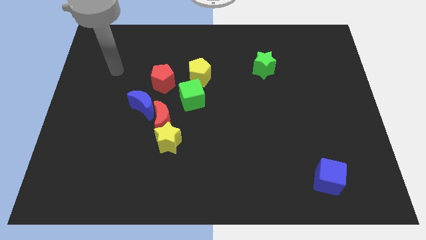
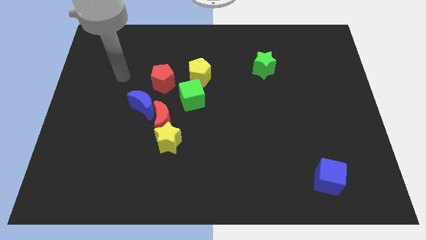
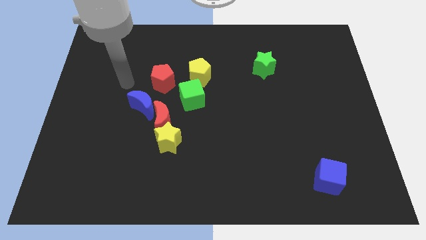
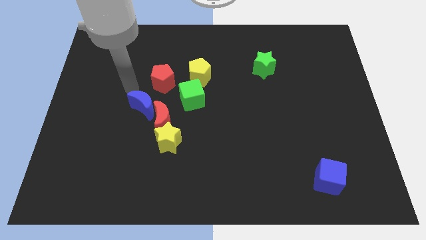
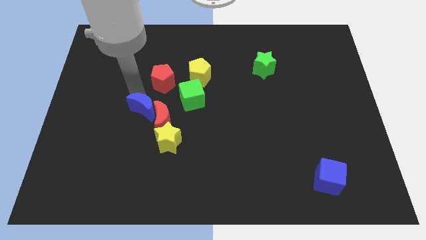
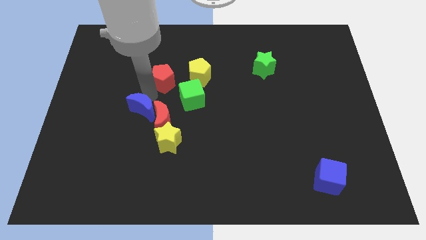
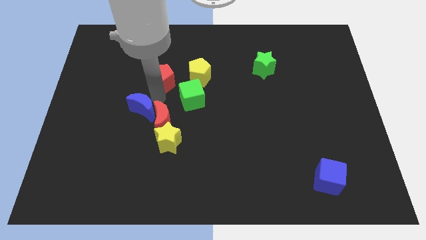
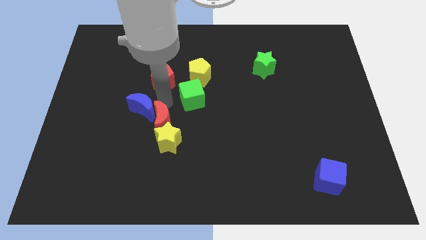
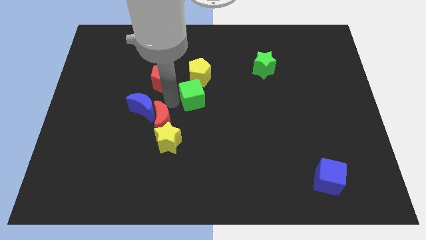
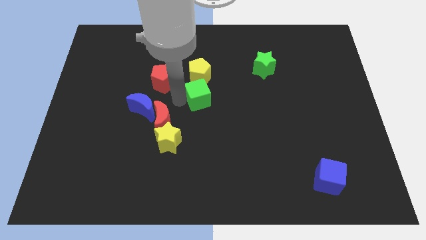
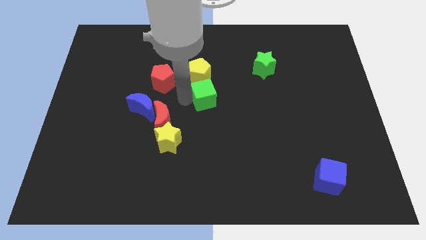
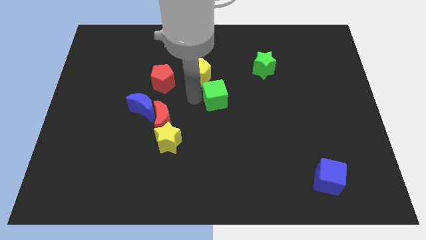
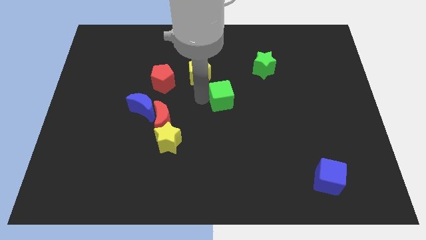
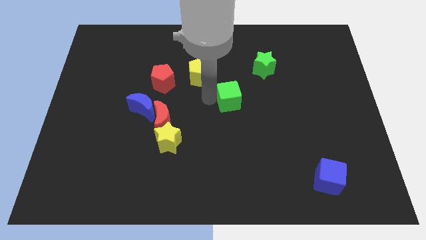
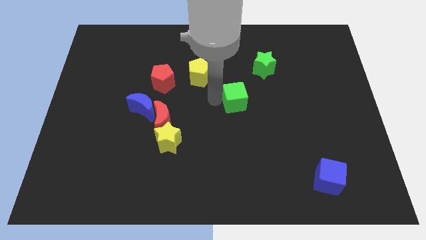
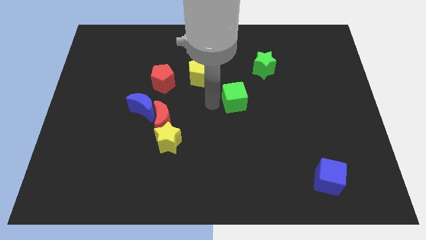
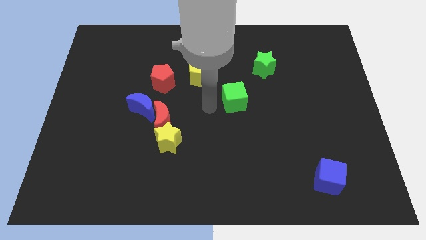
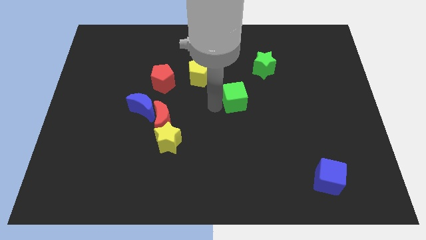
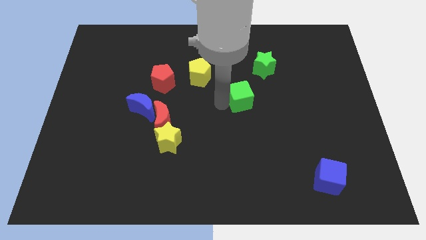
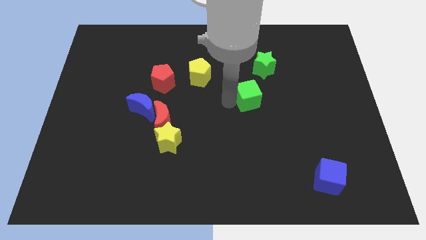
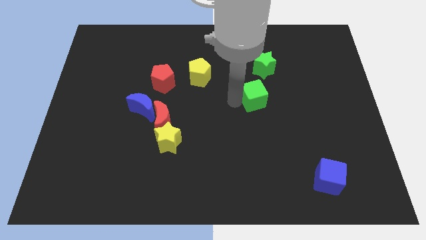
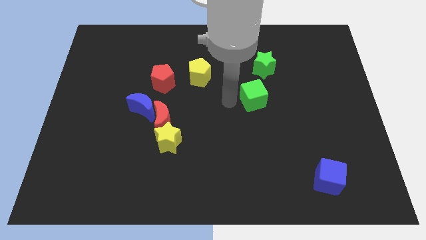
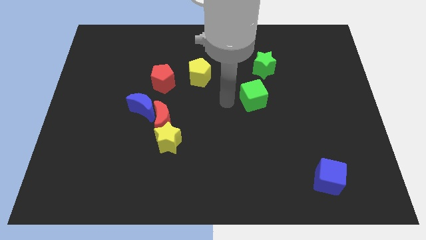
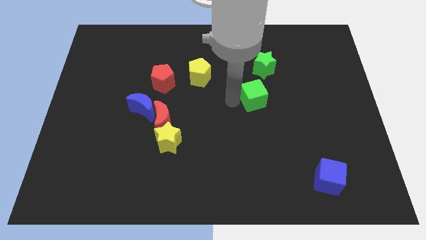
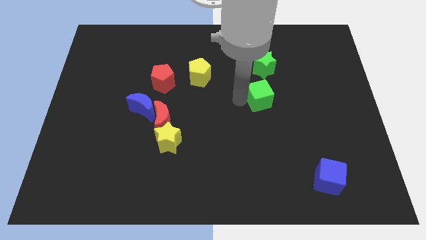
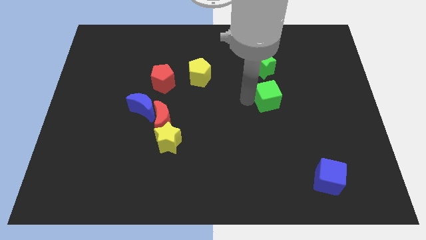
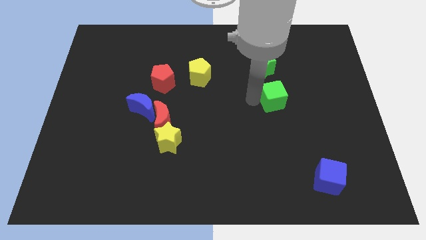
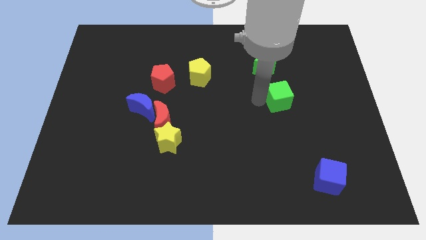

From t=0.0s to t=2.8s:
move the green cube to the right

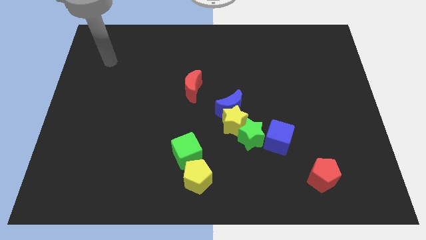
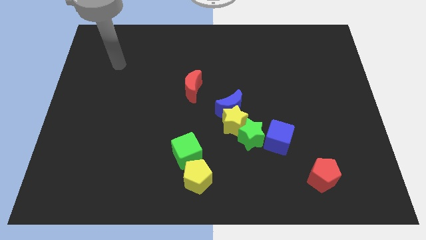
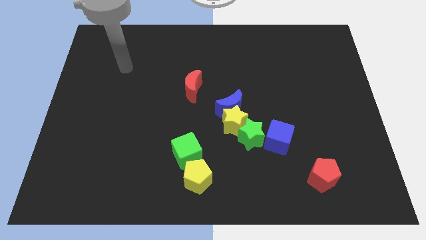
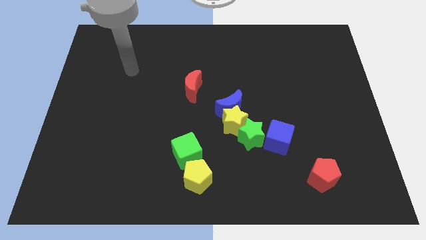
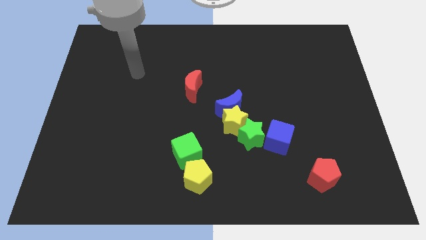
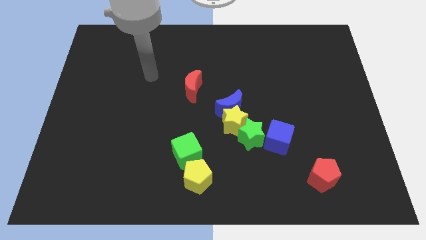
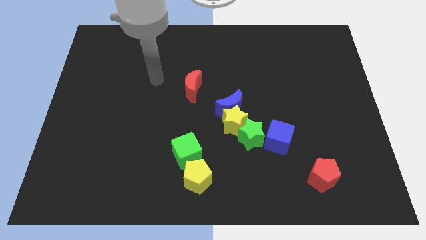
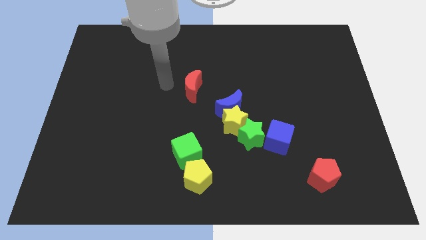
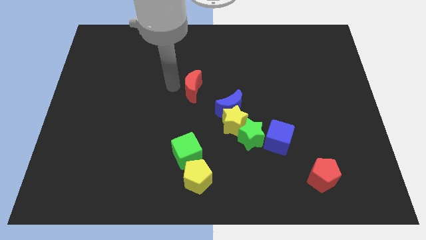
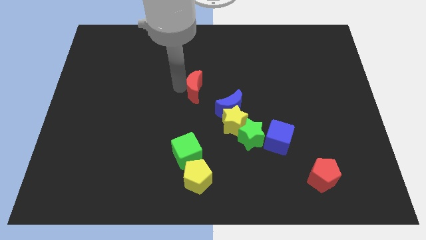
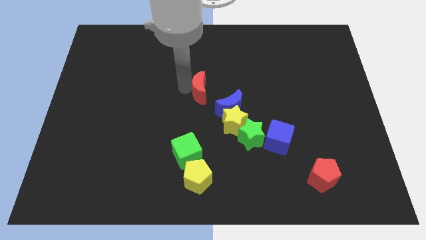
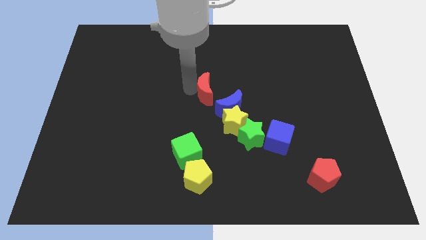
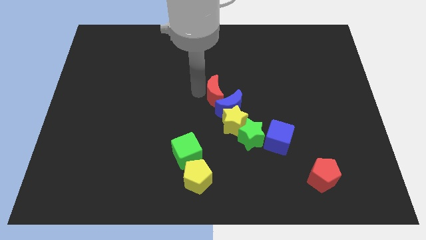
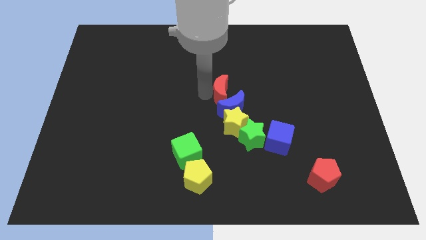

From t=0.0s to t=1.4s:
slightly slide the red moon right

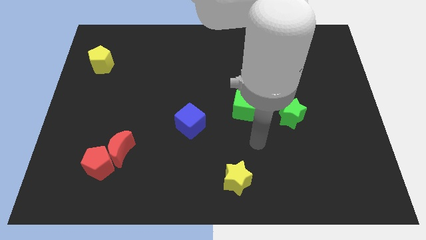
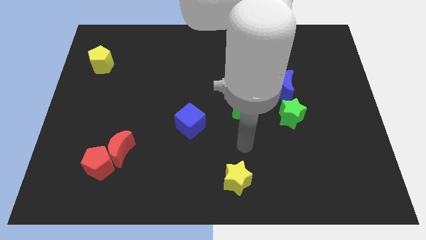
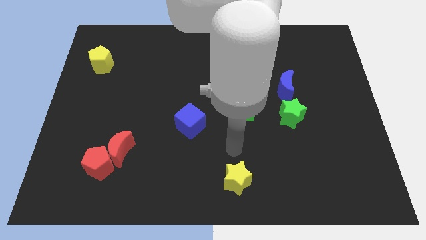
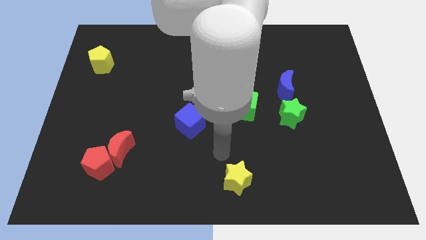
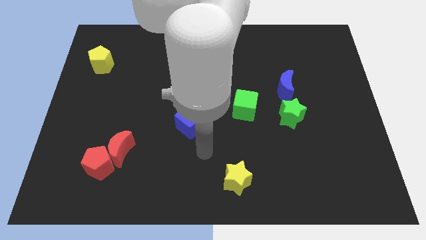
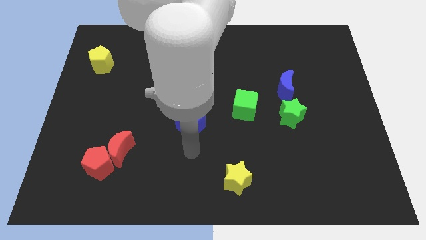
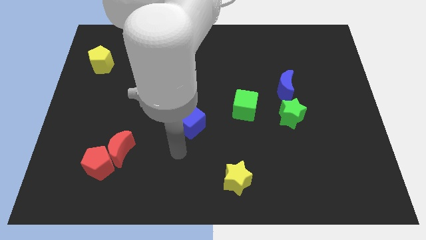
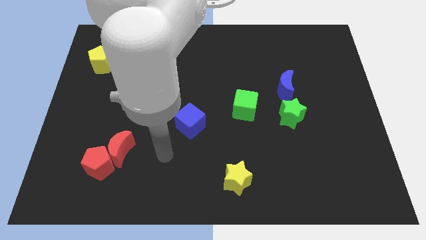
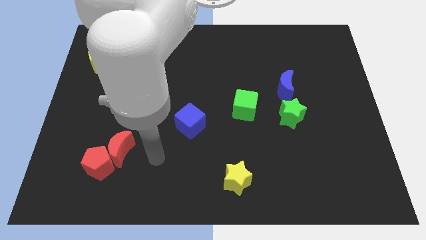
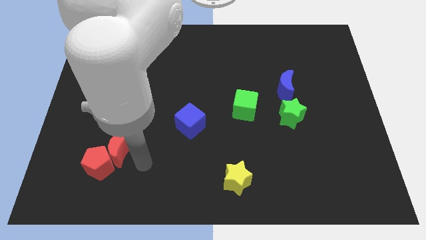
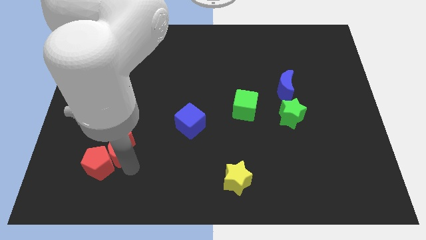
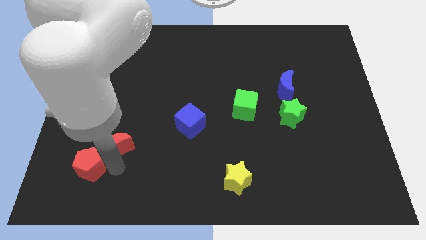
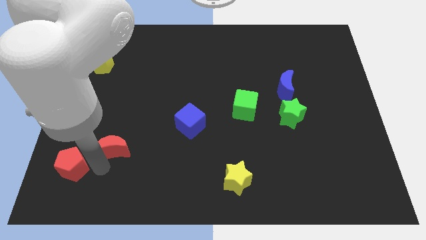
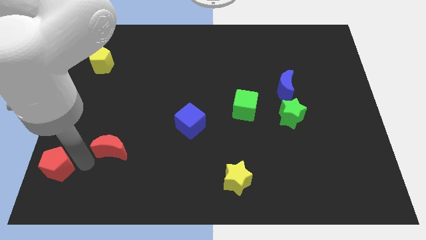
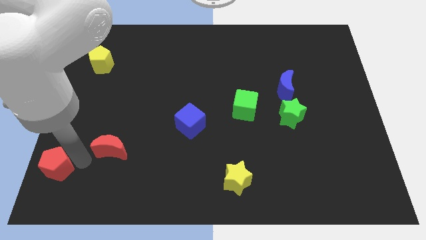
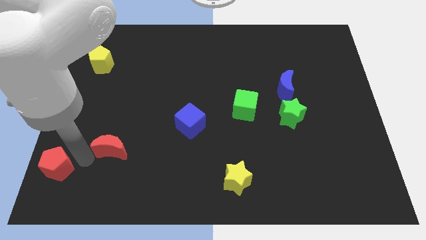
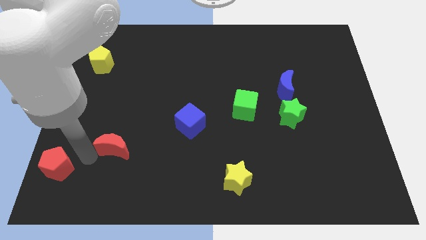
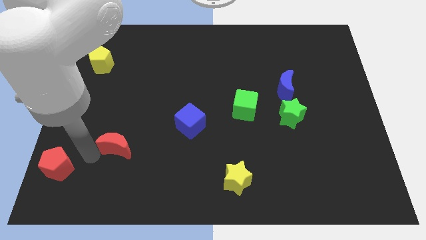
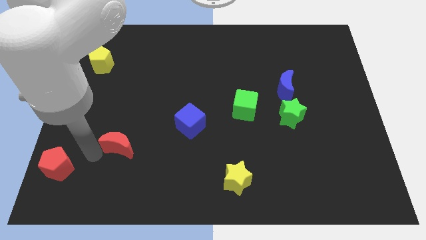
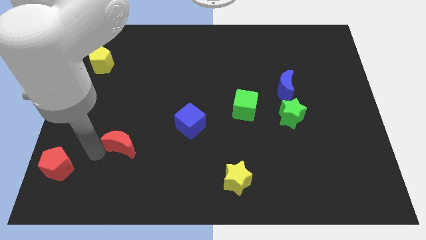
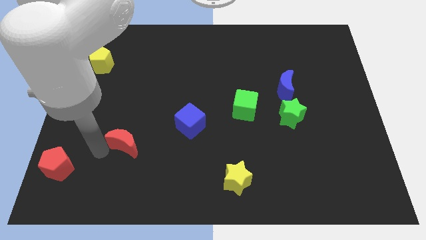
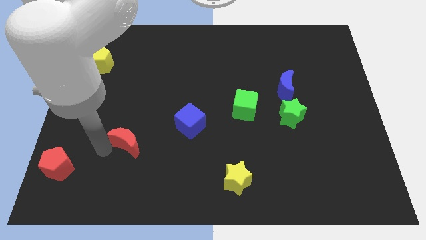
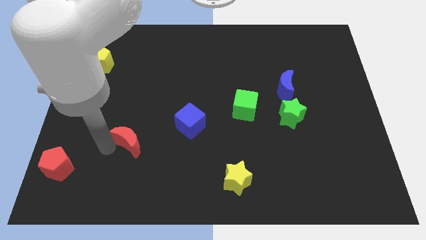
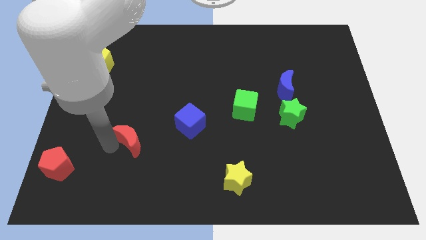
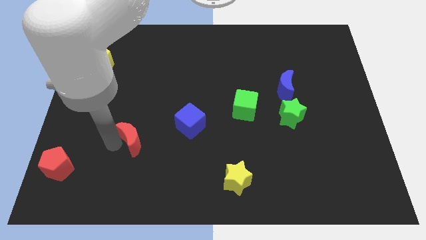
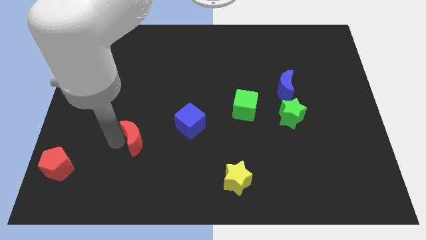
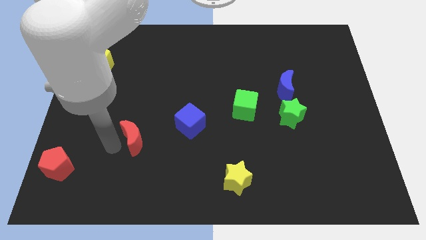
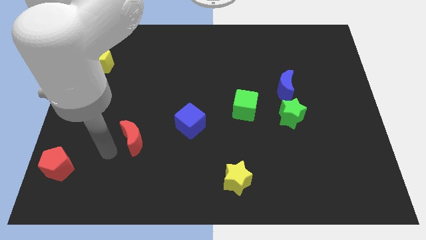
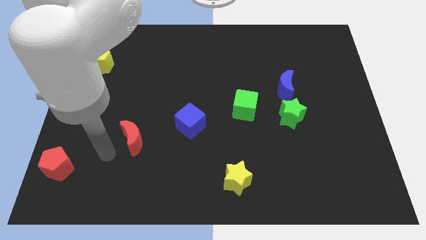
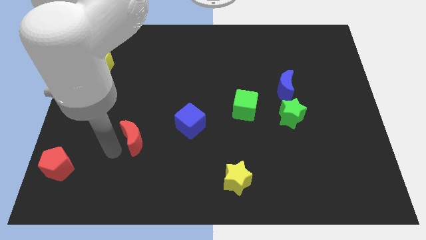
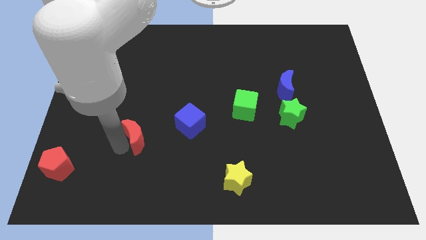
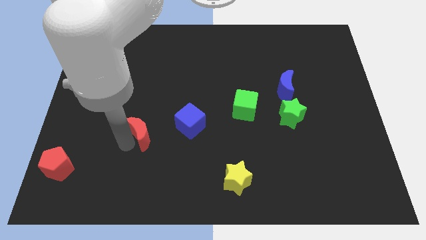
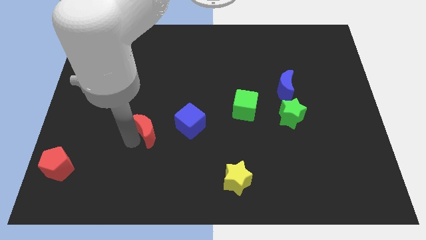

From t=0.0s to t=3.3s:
push the red moon a bit up and right diagonally

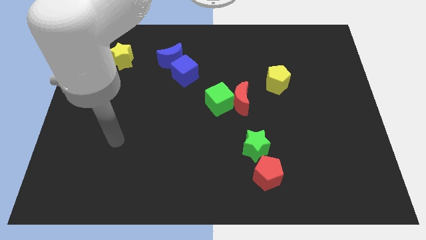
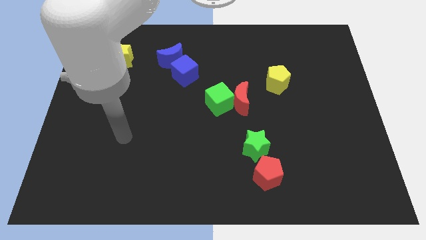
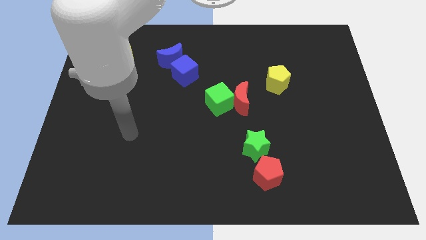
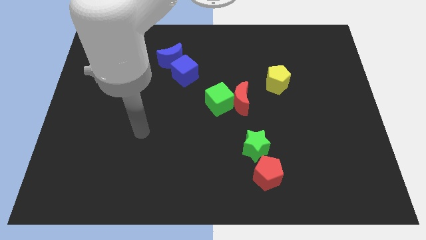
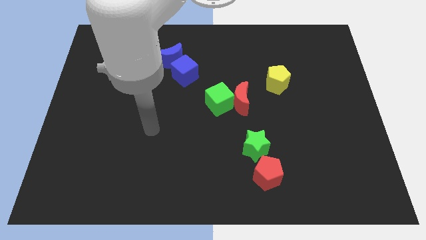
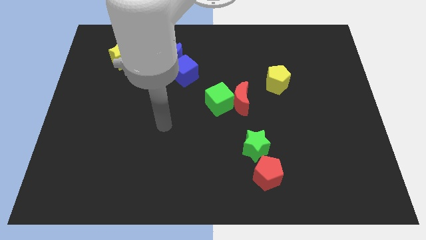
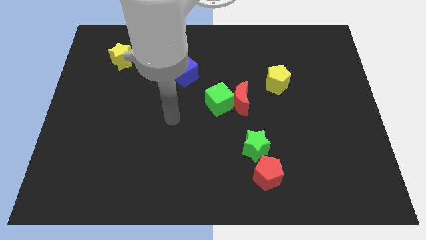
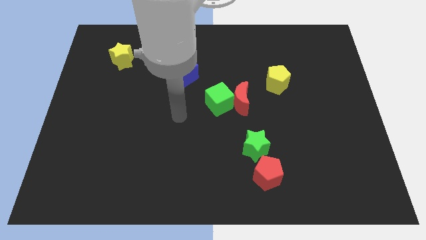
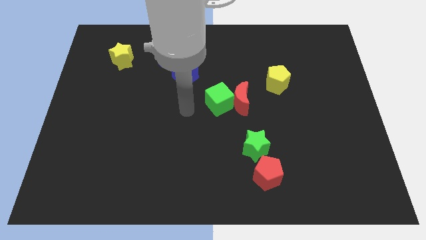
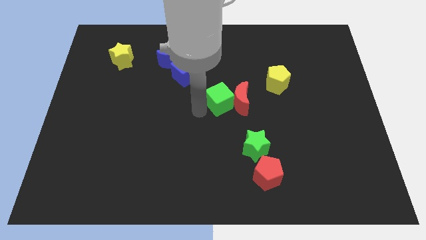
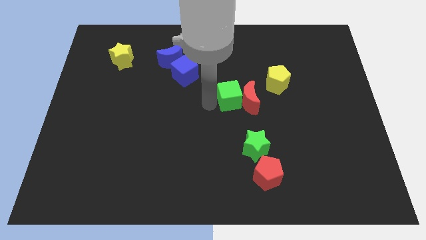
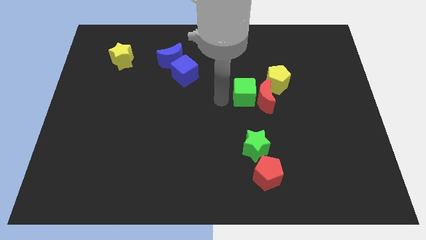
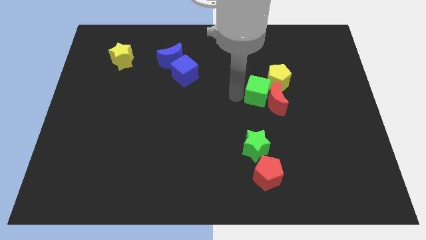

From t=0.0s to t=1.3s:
slightly move the red moon to the right
